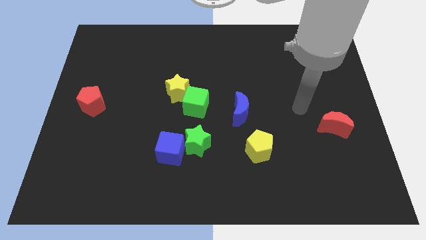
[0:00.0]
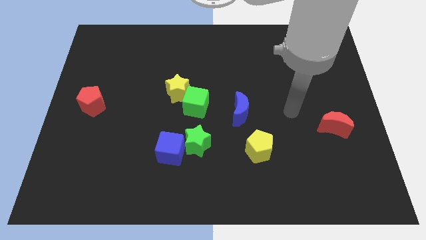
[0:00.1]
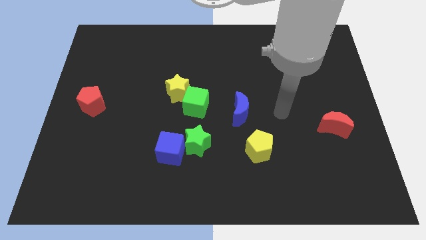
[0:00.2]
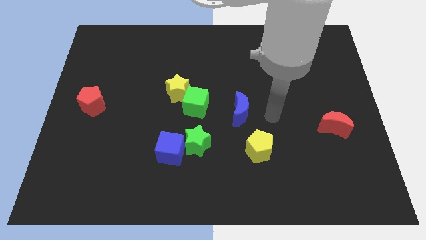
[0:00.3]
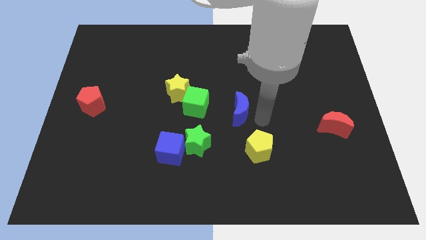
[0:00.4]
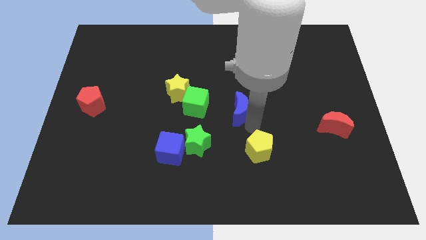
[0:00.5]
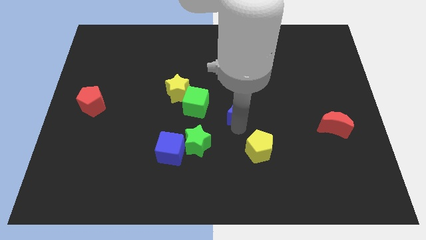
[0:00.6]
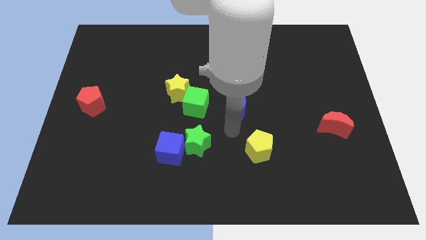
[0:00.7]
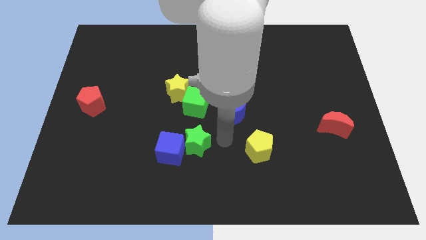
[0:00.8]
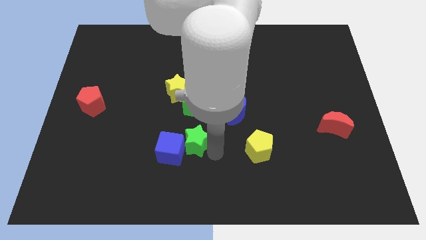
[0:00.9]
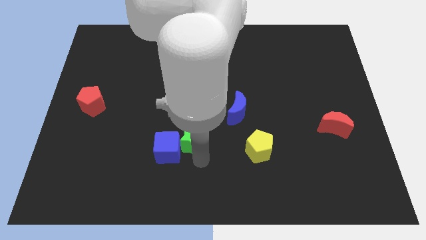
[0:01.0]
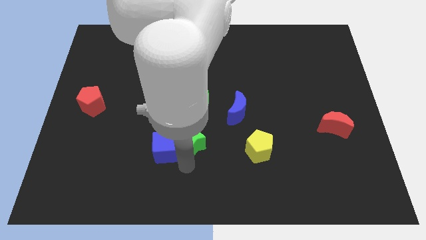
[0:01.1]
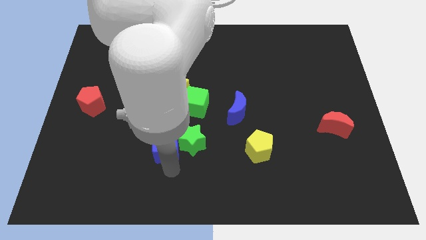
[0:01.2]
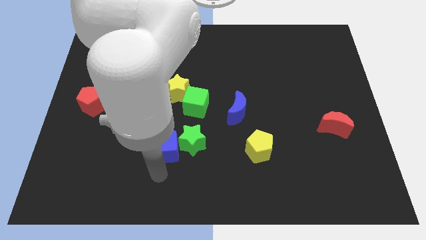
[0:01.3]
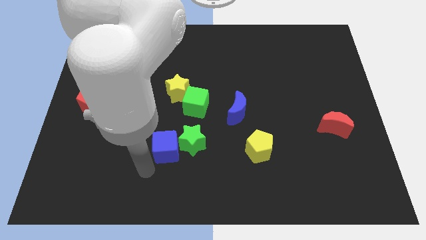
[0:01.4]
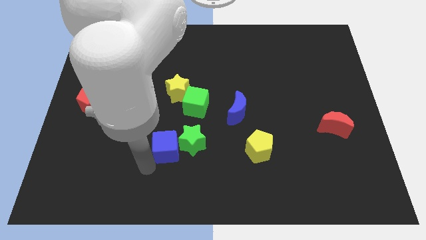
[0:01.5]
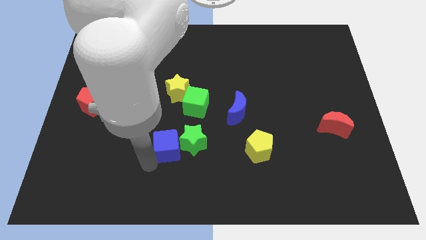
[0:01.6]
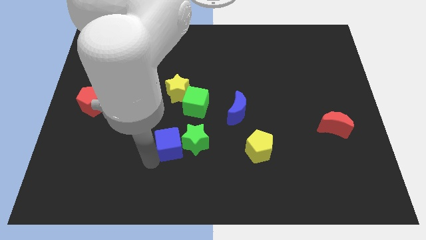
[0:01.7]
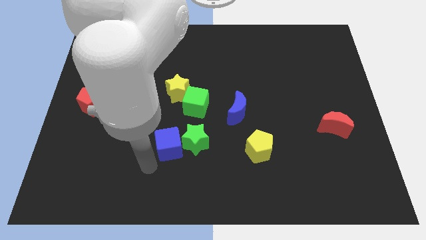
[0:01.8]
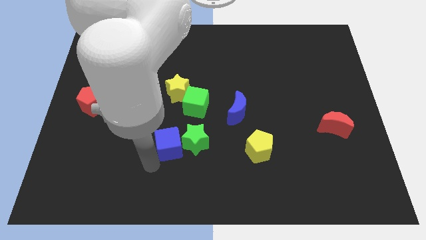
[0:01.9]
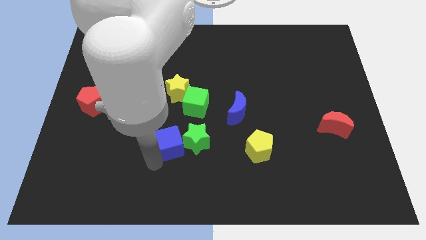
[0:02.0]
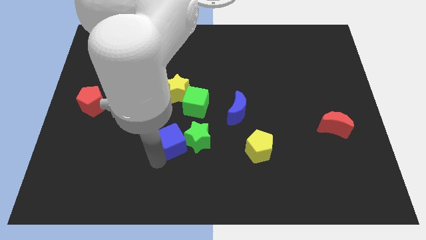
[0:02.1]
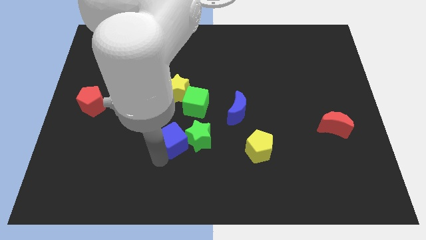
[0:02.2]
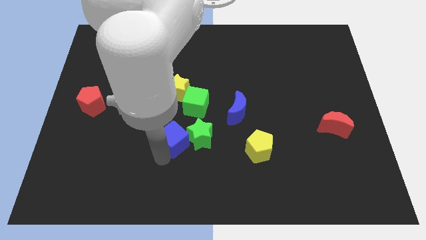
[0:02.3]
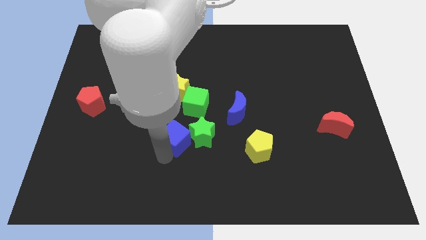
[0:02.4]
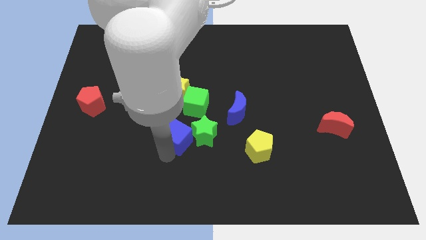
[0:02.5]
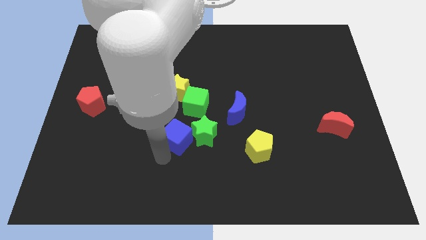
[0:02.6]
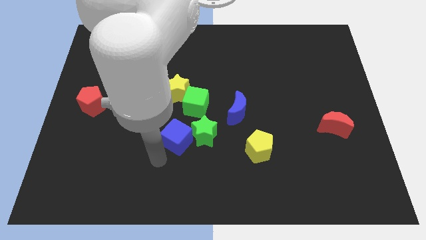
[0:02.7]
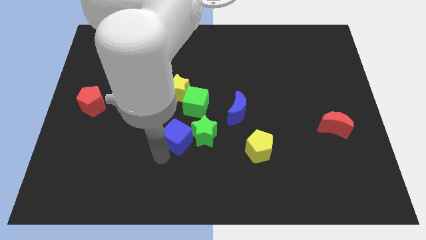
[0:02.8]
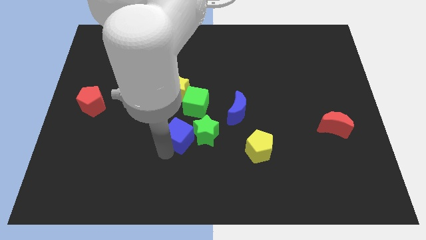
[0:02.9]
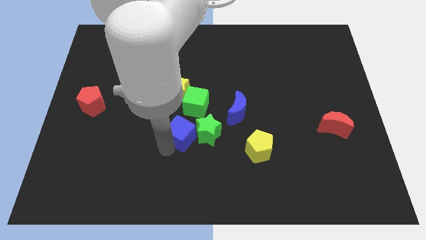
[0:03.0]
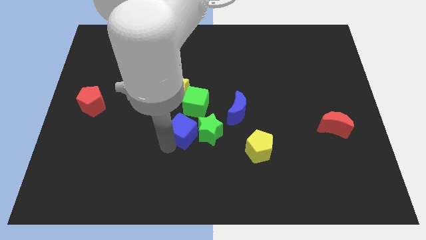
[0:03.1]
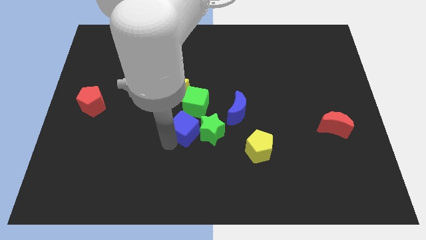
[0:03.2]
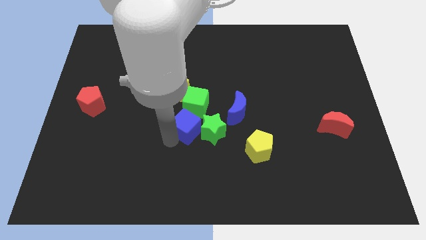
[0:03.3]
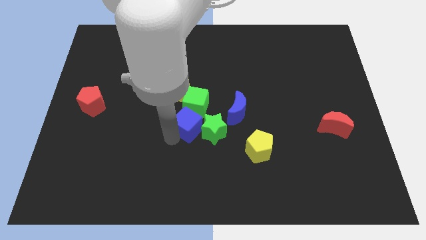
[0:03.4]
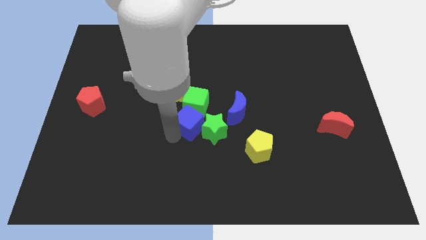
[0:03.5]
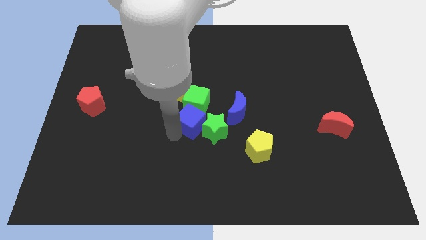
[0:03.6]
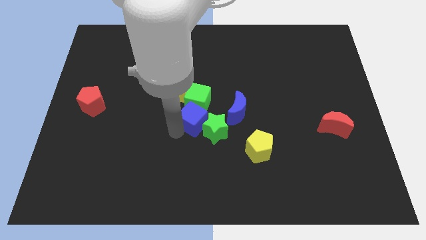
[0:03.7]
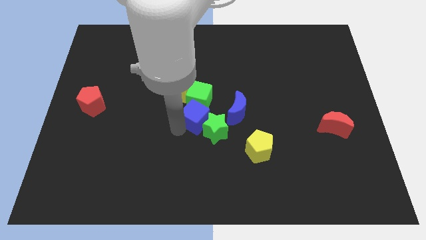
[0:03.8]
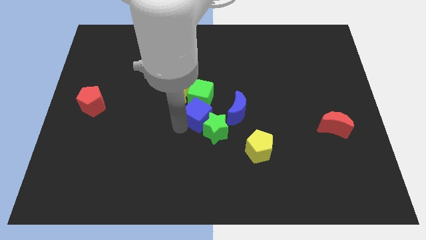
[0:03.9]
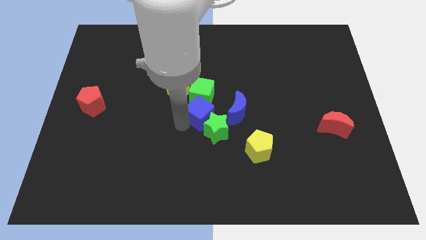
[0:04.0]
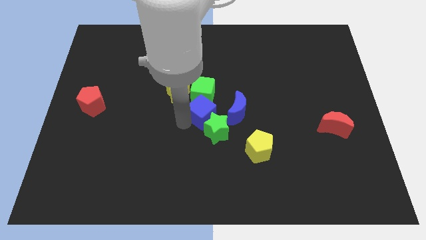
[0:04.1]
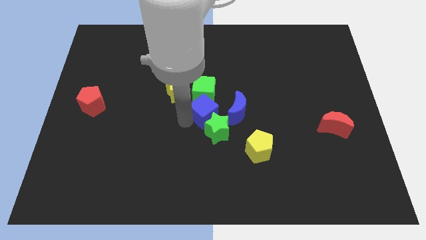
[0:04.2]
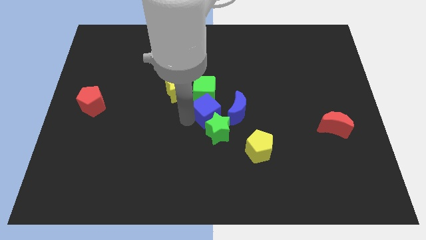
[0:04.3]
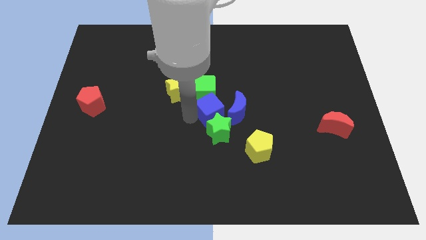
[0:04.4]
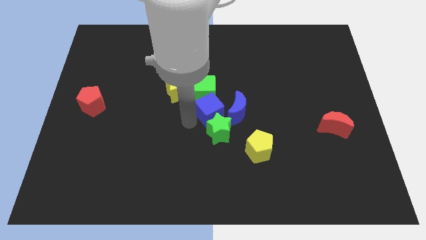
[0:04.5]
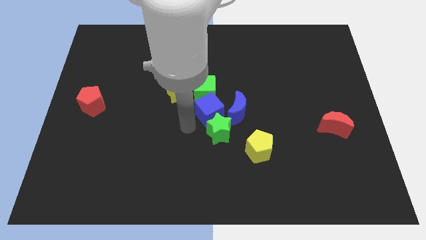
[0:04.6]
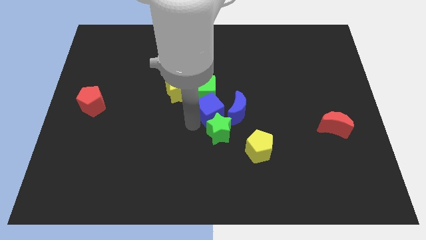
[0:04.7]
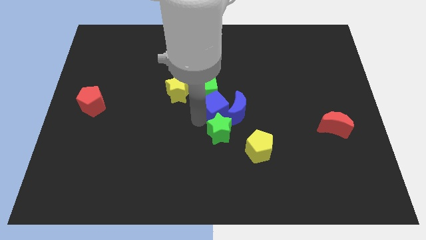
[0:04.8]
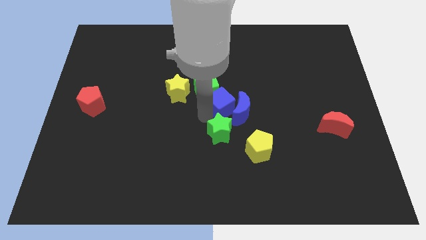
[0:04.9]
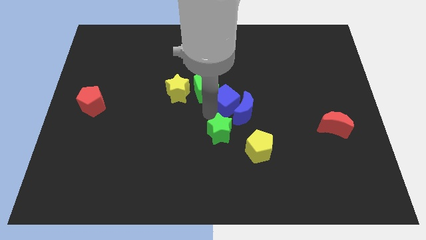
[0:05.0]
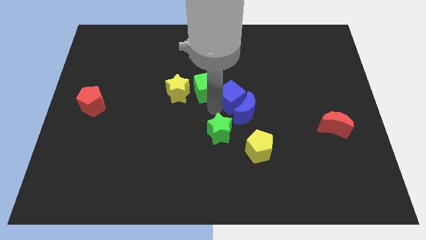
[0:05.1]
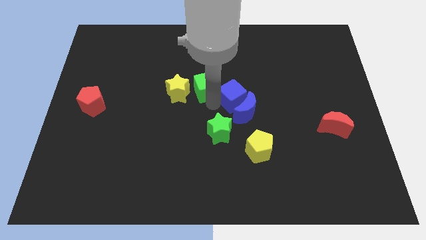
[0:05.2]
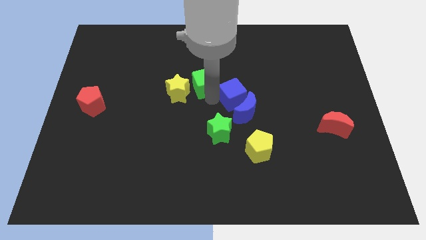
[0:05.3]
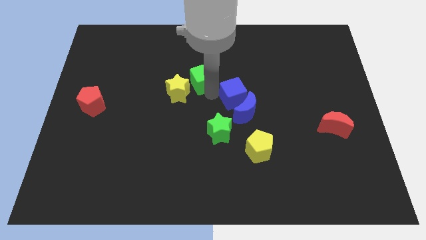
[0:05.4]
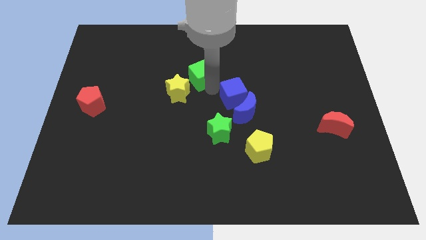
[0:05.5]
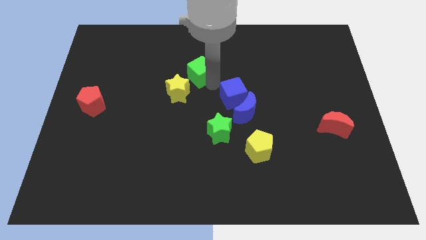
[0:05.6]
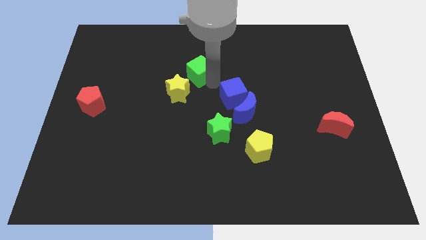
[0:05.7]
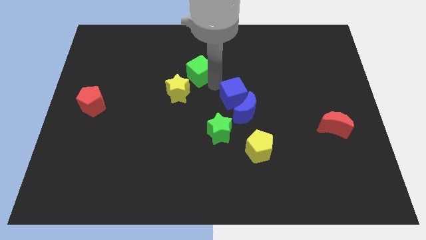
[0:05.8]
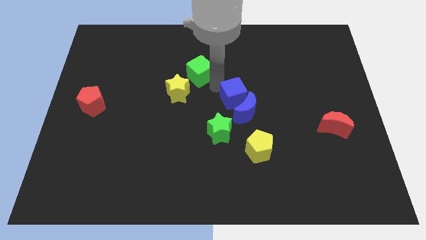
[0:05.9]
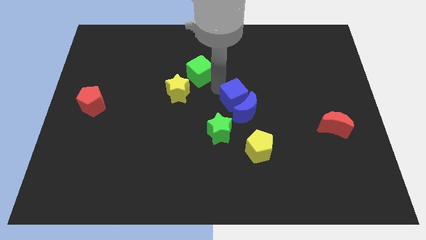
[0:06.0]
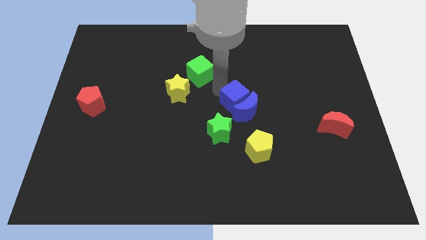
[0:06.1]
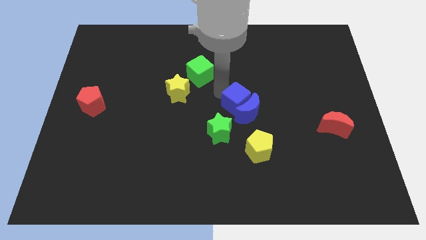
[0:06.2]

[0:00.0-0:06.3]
move the blue cube to the top side of the yellow pentagon

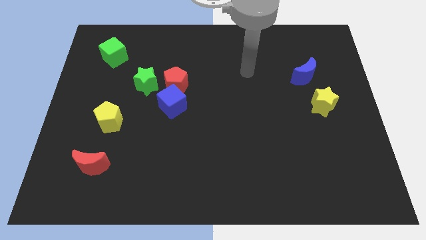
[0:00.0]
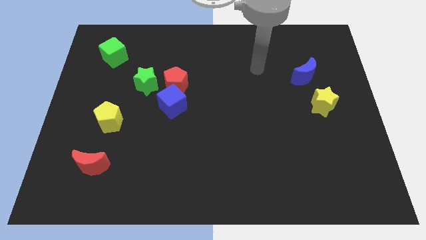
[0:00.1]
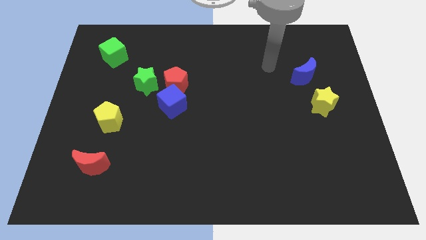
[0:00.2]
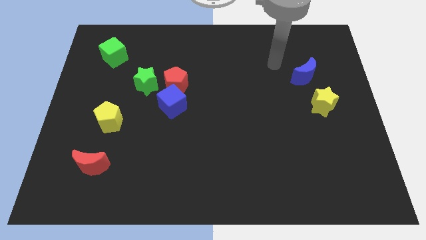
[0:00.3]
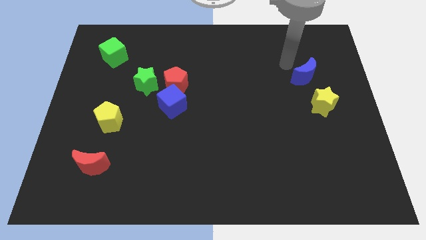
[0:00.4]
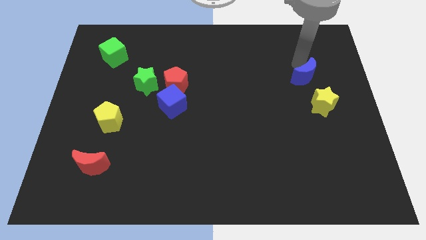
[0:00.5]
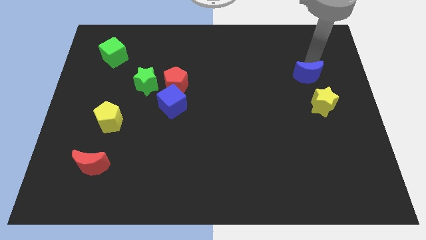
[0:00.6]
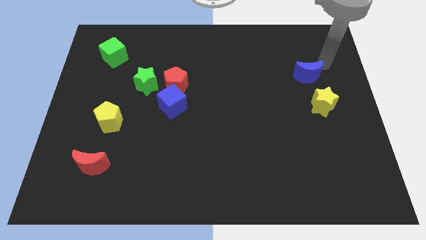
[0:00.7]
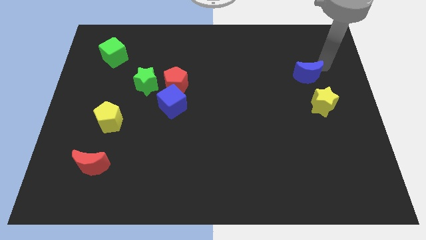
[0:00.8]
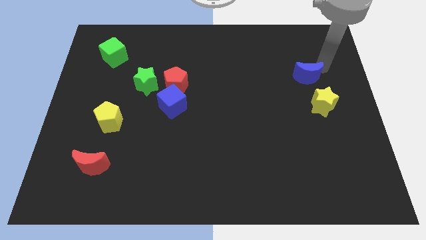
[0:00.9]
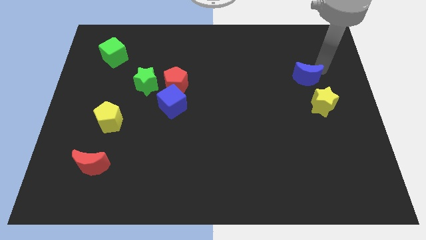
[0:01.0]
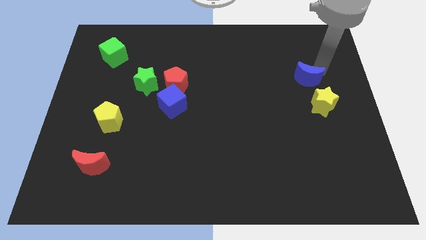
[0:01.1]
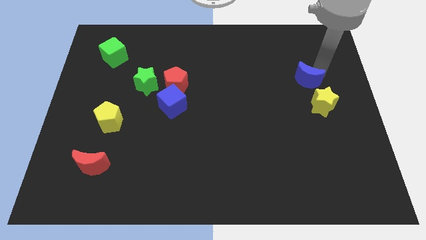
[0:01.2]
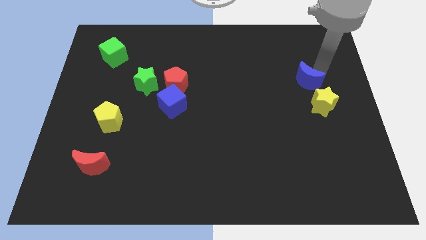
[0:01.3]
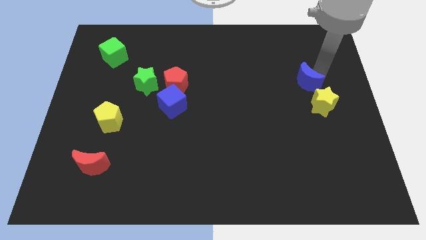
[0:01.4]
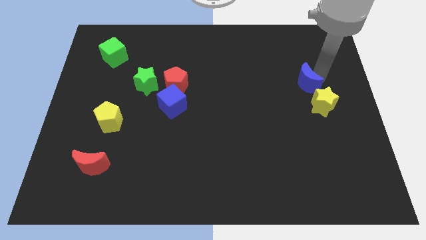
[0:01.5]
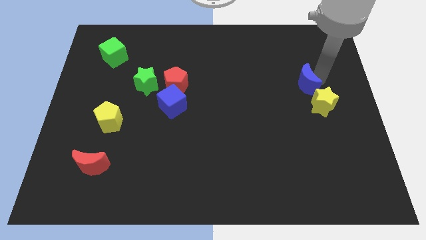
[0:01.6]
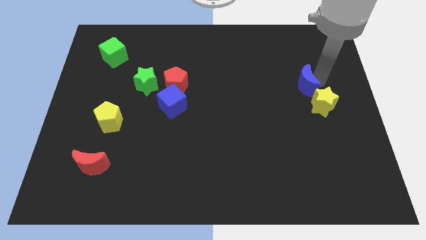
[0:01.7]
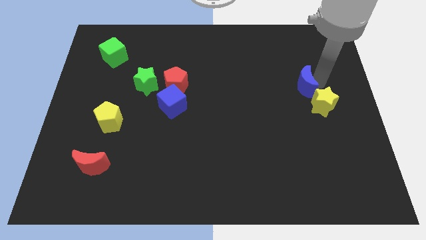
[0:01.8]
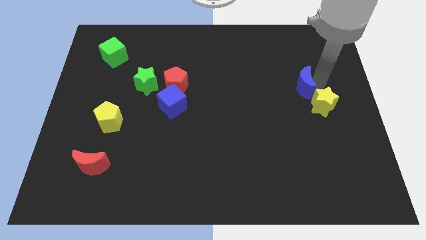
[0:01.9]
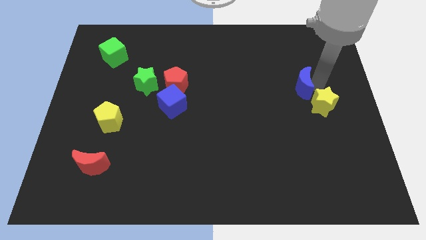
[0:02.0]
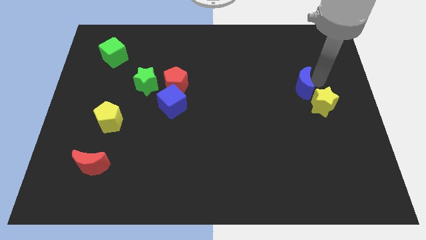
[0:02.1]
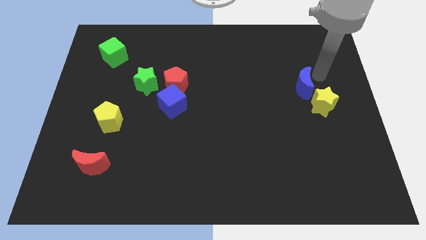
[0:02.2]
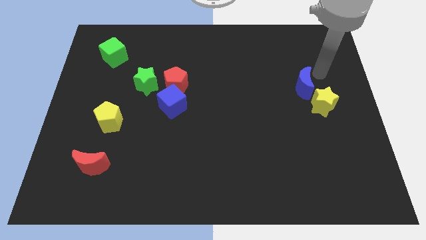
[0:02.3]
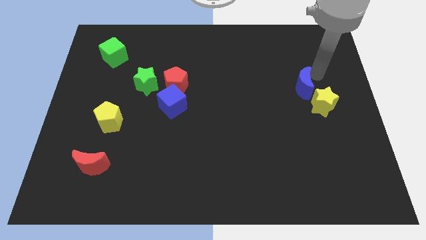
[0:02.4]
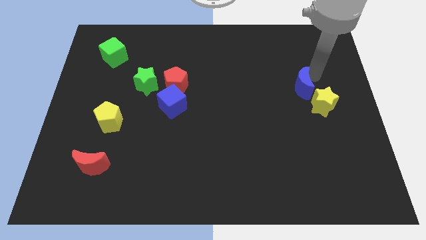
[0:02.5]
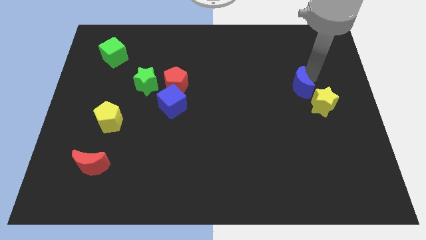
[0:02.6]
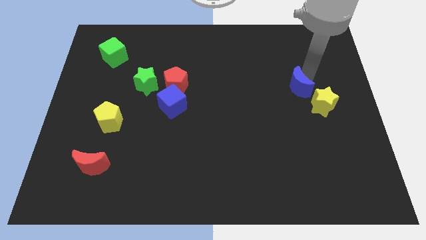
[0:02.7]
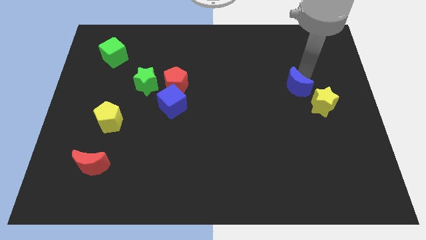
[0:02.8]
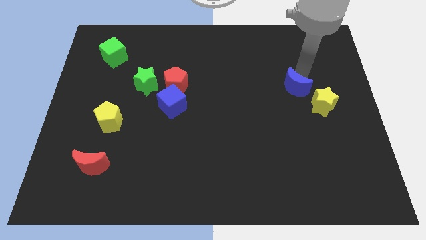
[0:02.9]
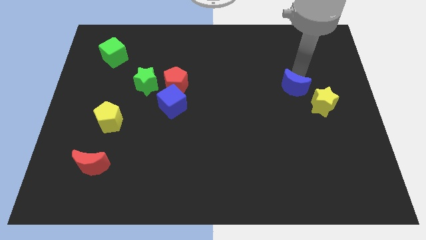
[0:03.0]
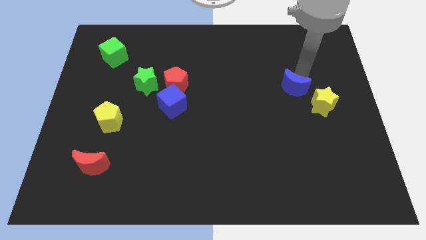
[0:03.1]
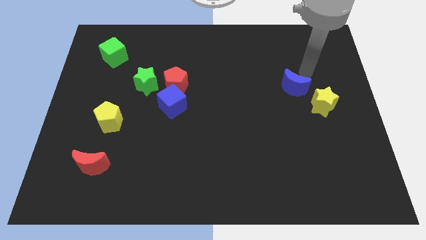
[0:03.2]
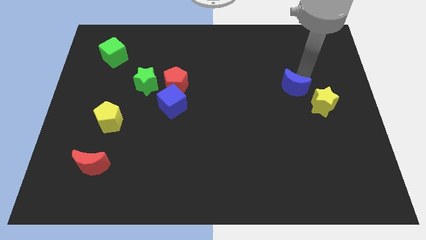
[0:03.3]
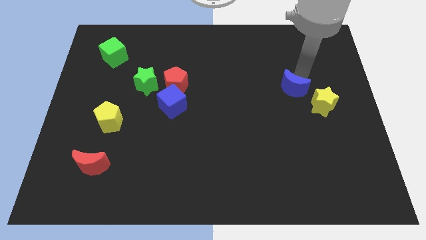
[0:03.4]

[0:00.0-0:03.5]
put the blue moon left of the yellow star
